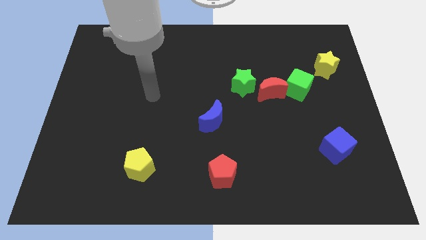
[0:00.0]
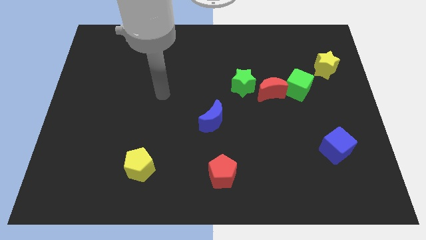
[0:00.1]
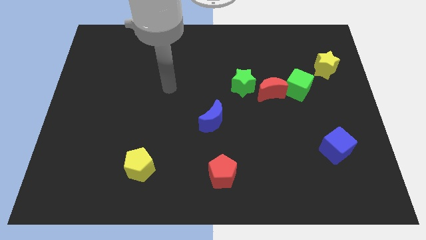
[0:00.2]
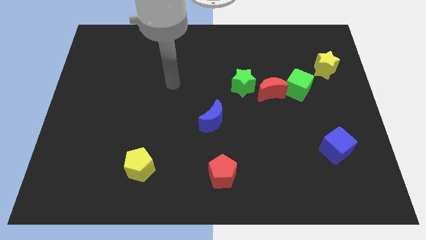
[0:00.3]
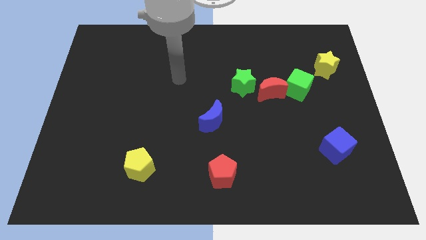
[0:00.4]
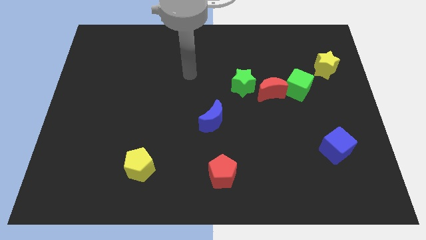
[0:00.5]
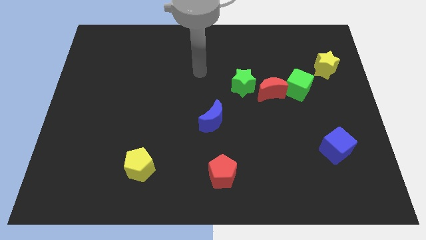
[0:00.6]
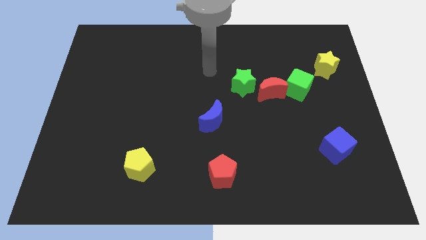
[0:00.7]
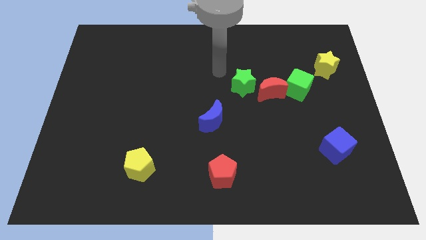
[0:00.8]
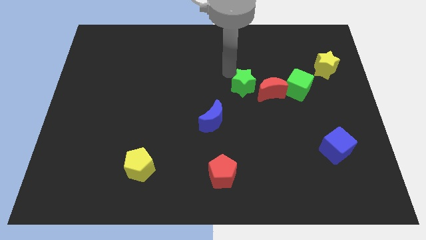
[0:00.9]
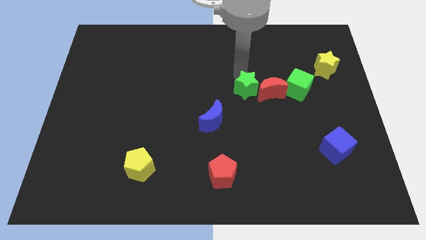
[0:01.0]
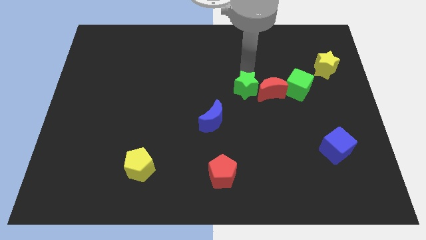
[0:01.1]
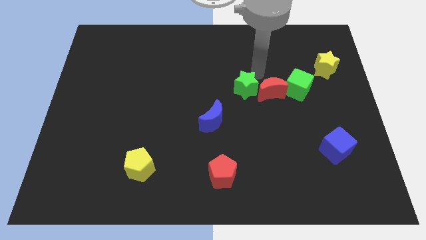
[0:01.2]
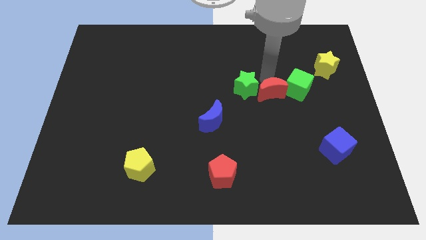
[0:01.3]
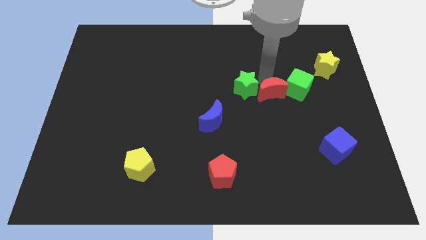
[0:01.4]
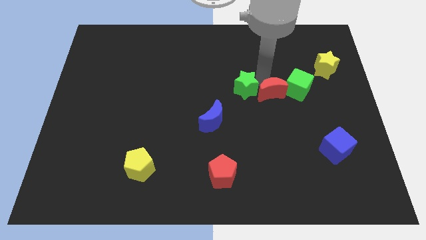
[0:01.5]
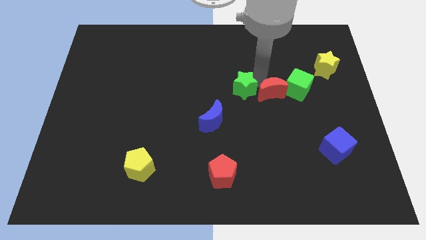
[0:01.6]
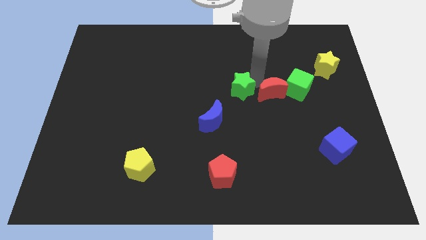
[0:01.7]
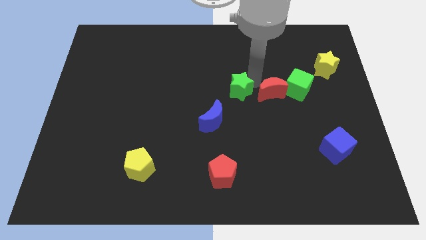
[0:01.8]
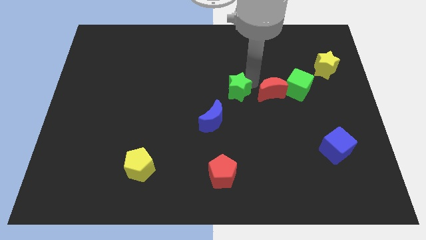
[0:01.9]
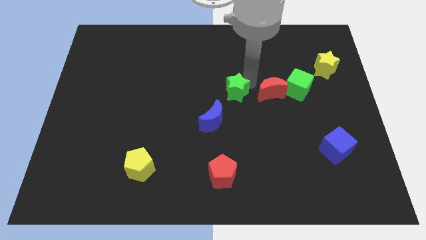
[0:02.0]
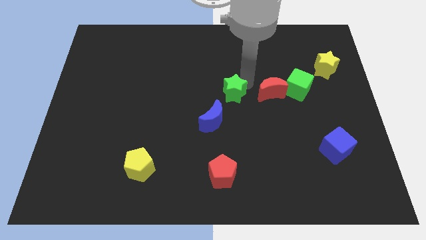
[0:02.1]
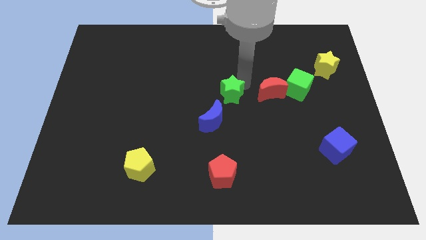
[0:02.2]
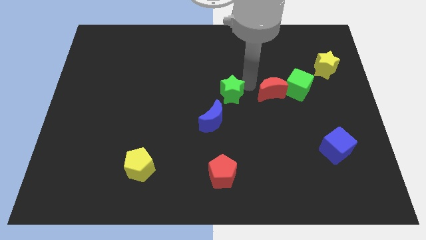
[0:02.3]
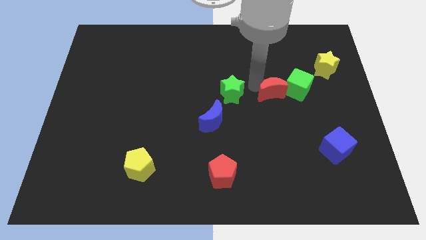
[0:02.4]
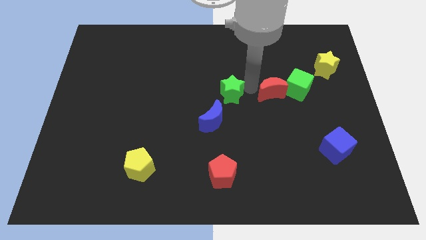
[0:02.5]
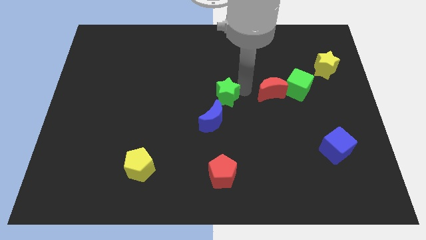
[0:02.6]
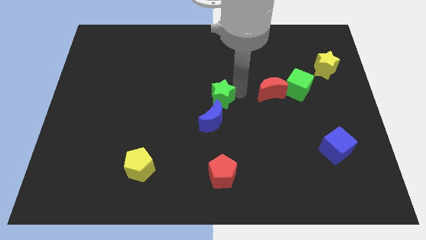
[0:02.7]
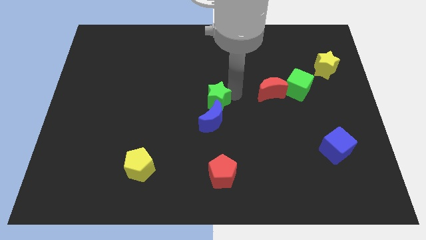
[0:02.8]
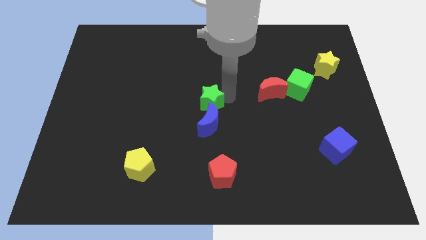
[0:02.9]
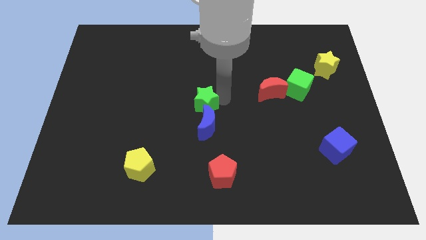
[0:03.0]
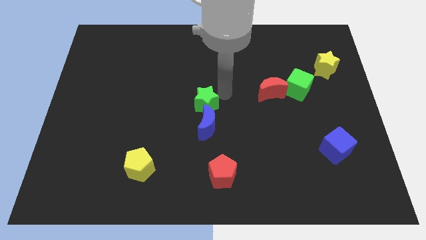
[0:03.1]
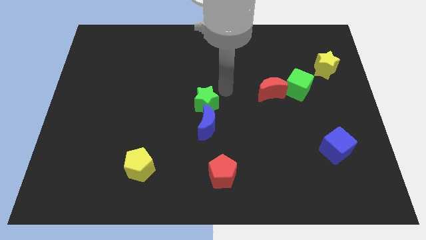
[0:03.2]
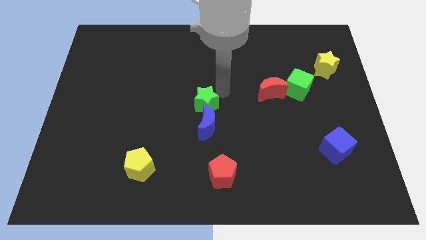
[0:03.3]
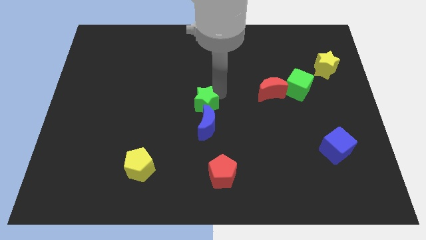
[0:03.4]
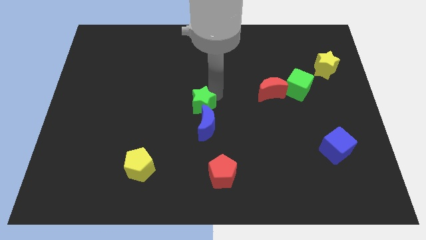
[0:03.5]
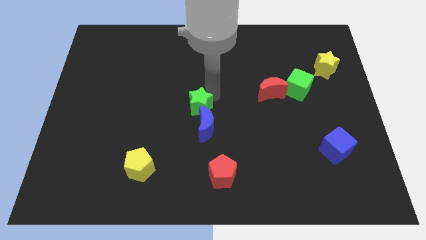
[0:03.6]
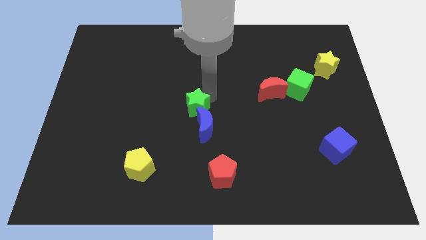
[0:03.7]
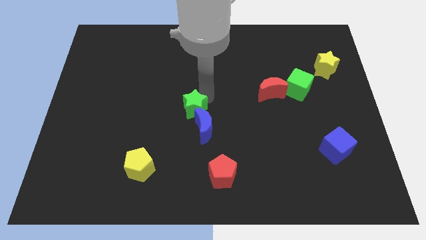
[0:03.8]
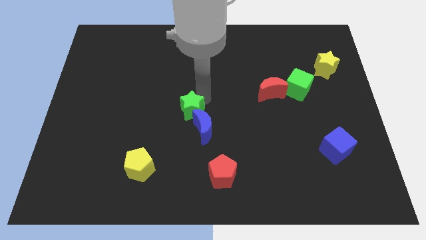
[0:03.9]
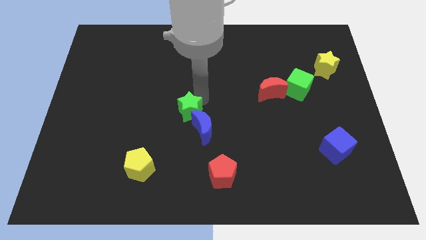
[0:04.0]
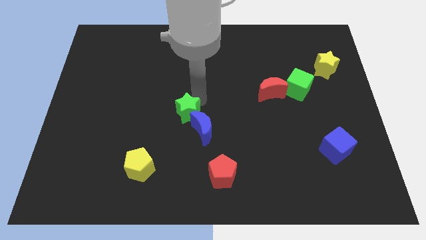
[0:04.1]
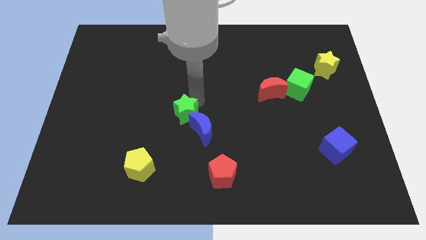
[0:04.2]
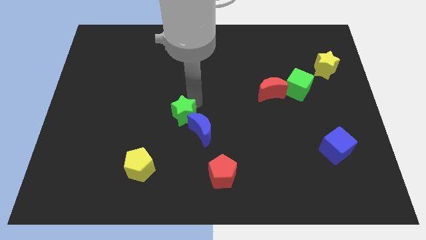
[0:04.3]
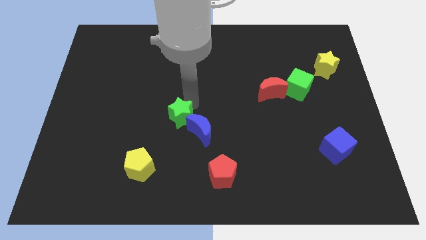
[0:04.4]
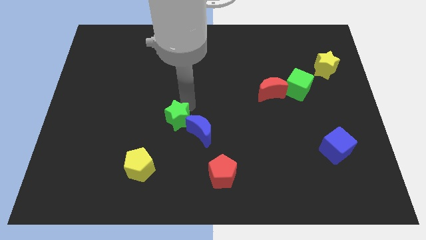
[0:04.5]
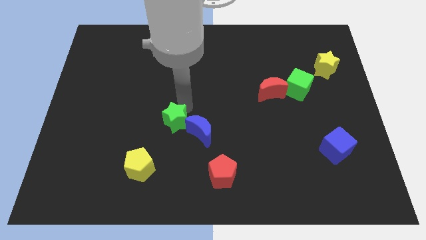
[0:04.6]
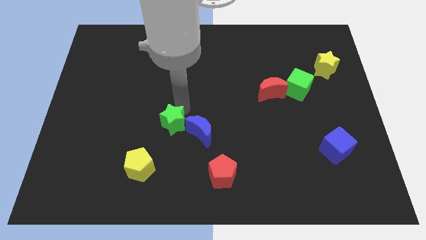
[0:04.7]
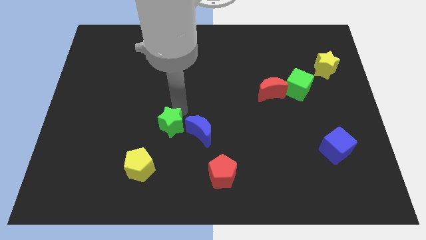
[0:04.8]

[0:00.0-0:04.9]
put the green star to the top right side of the yellow pentagon

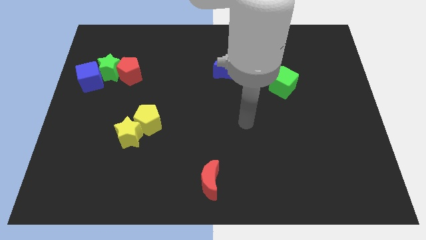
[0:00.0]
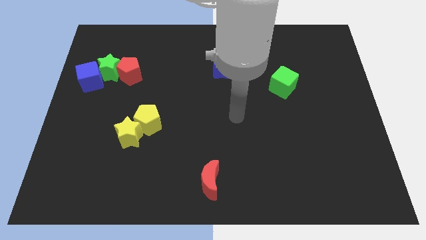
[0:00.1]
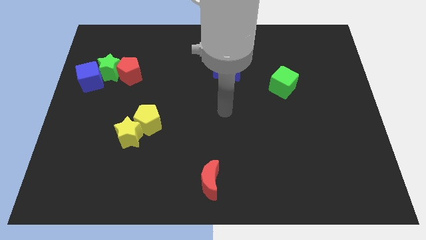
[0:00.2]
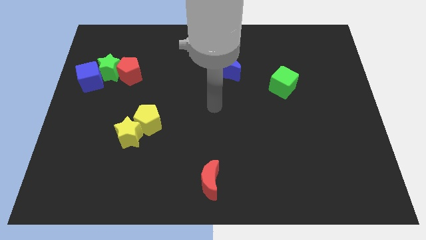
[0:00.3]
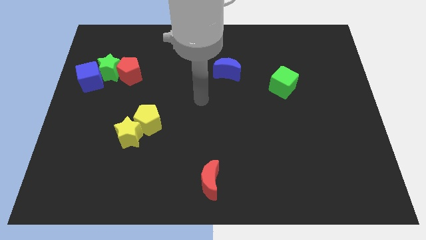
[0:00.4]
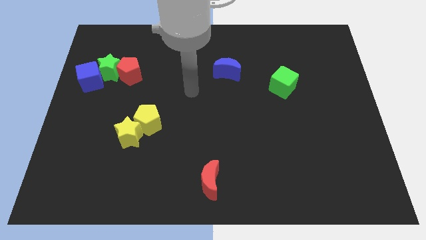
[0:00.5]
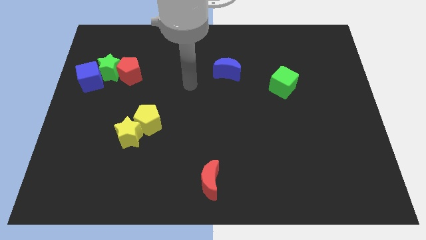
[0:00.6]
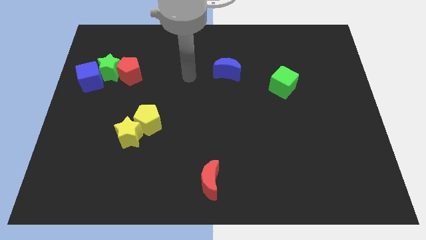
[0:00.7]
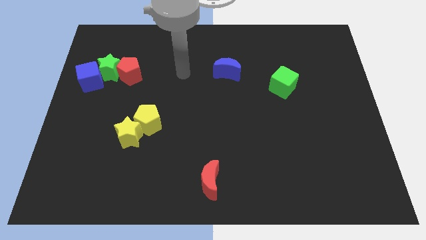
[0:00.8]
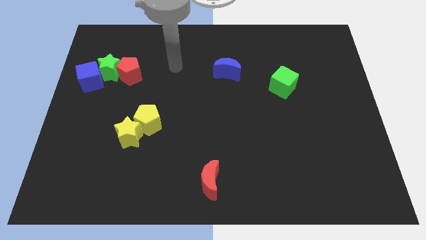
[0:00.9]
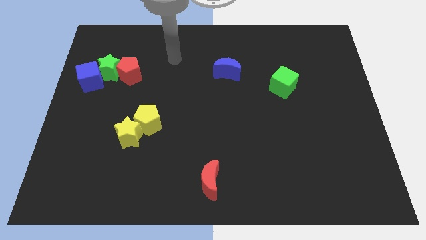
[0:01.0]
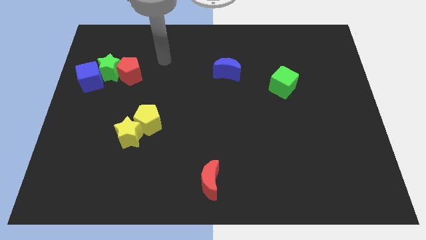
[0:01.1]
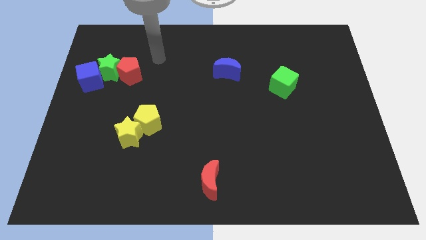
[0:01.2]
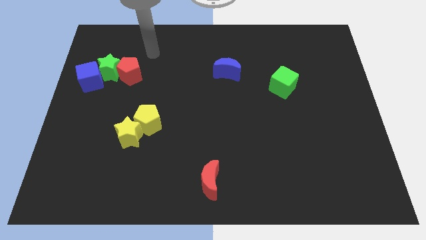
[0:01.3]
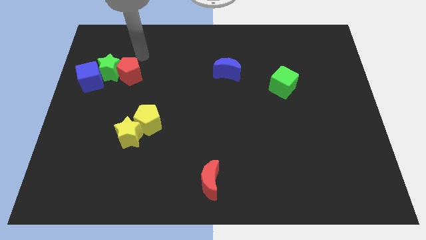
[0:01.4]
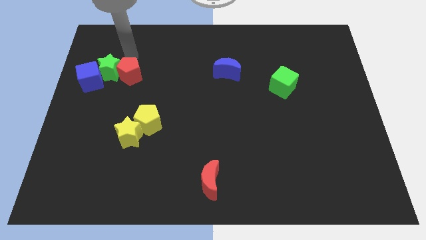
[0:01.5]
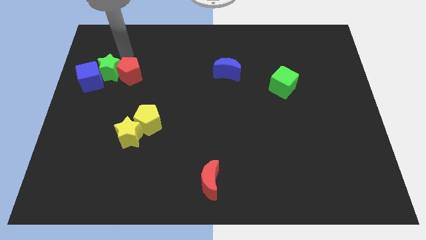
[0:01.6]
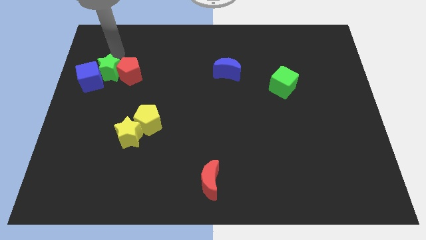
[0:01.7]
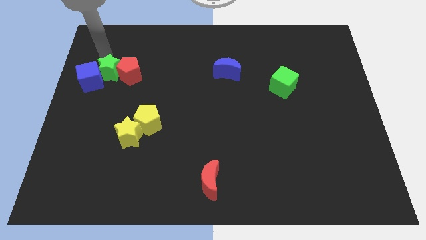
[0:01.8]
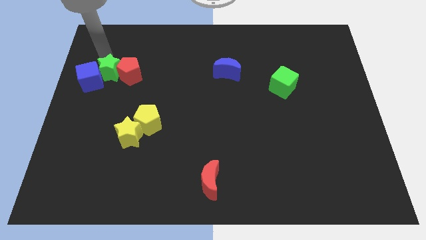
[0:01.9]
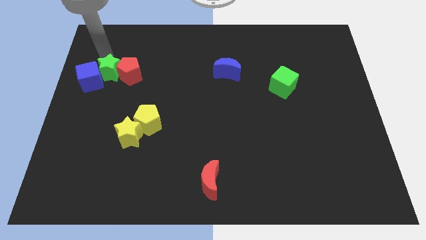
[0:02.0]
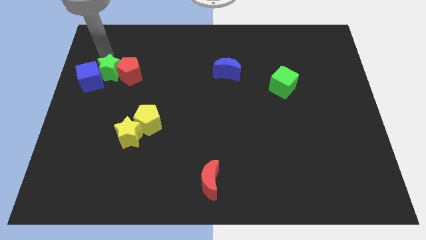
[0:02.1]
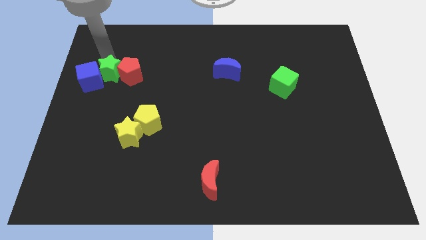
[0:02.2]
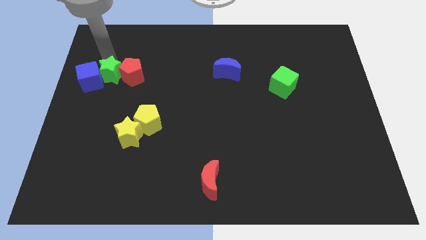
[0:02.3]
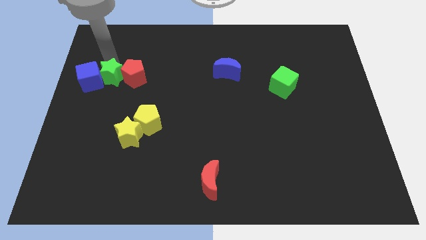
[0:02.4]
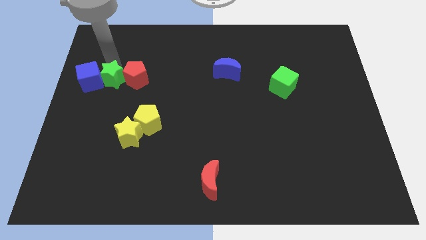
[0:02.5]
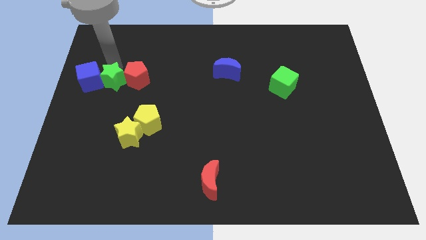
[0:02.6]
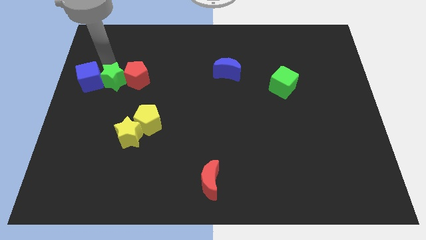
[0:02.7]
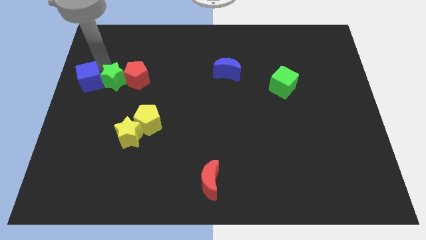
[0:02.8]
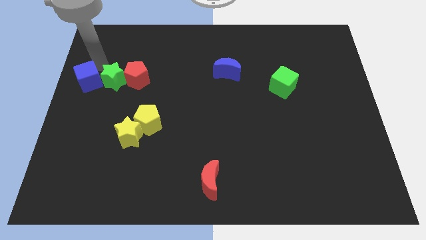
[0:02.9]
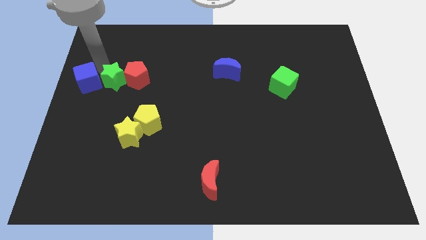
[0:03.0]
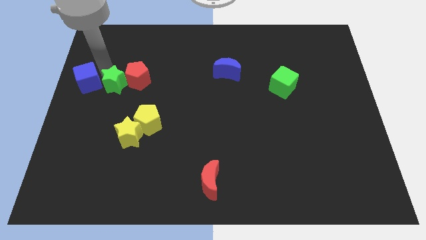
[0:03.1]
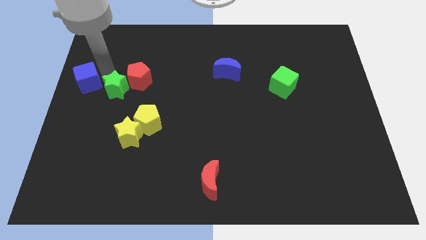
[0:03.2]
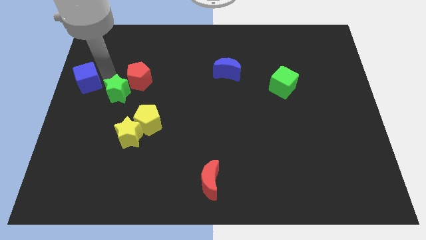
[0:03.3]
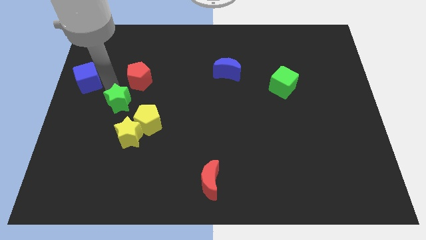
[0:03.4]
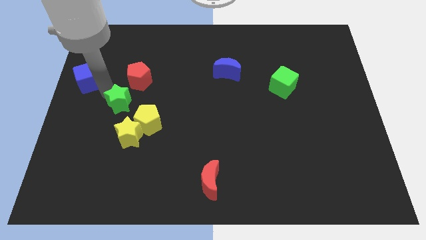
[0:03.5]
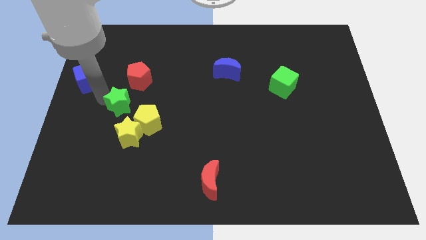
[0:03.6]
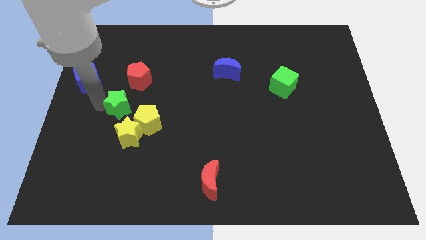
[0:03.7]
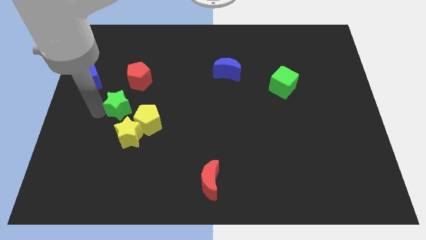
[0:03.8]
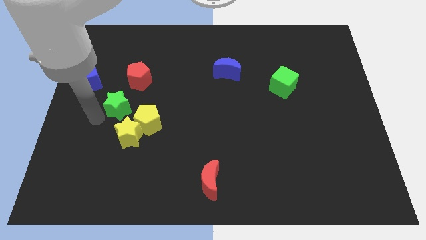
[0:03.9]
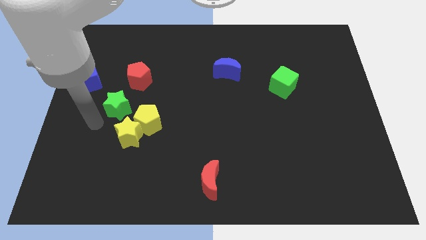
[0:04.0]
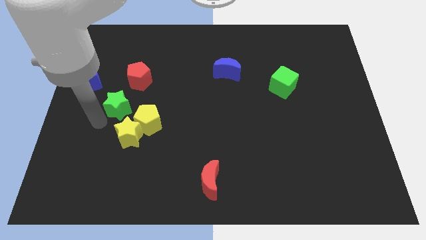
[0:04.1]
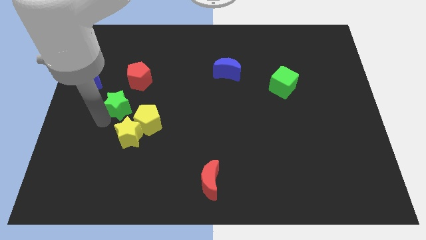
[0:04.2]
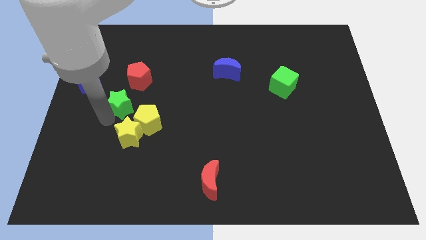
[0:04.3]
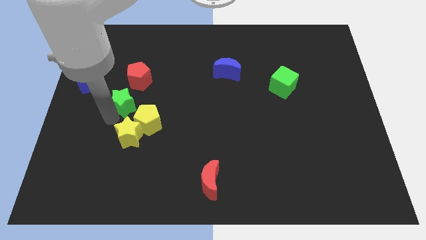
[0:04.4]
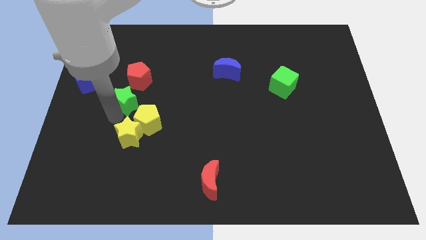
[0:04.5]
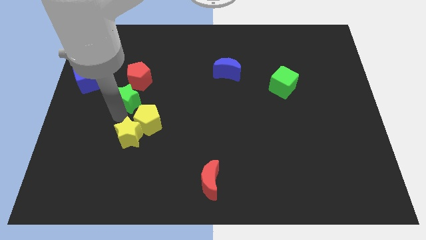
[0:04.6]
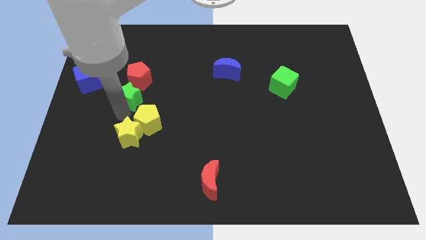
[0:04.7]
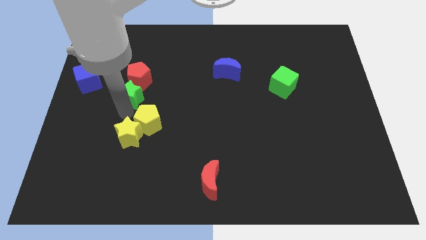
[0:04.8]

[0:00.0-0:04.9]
slide the green star to the top of the yellow pentagon
